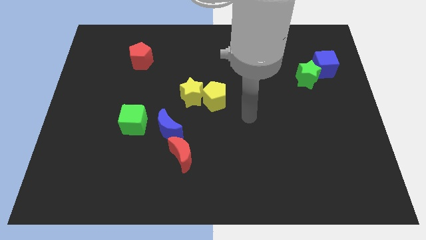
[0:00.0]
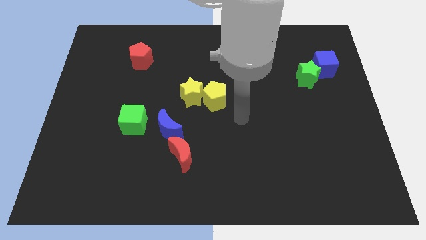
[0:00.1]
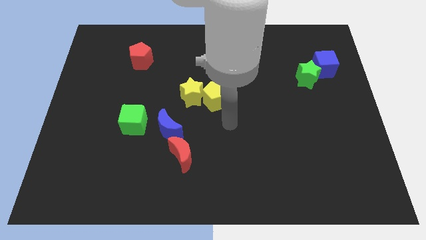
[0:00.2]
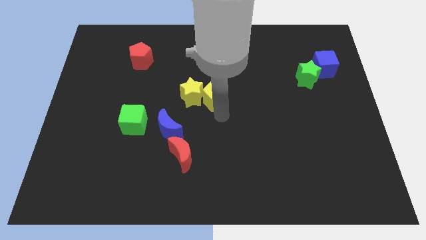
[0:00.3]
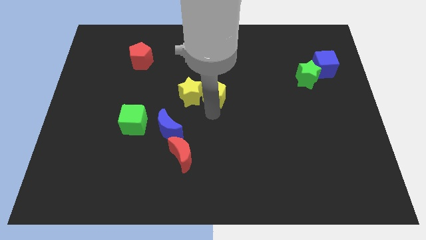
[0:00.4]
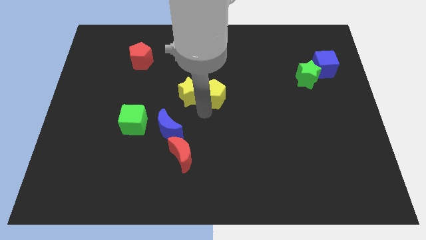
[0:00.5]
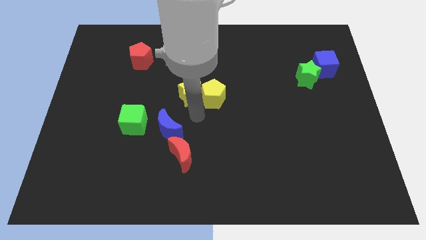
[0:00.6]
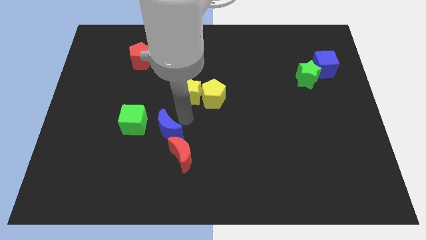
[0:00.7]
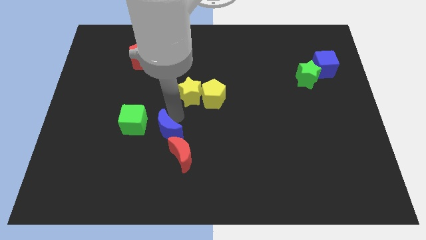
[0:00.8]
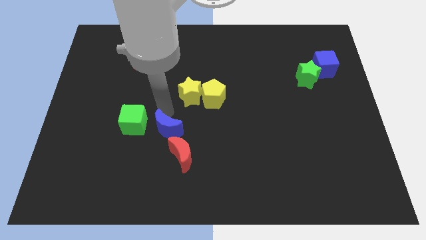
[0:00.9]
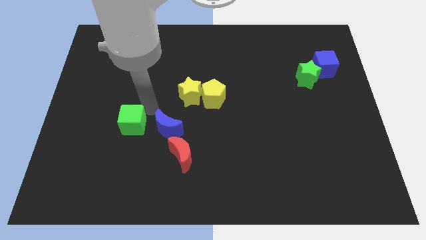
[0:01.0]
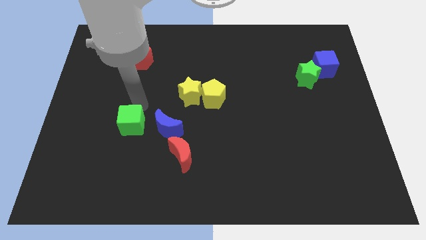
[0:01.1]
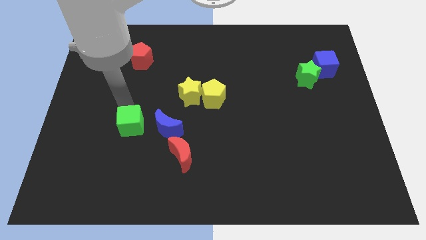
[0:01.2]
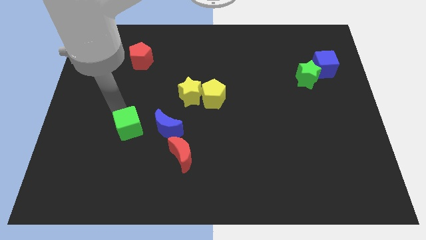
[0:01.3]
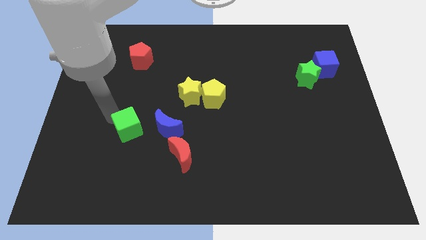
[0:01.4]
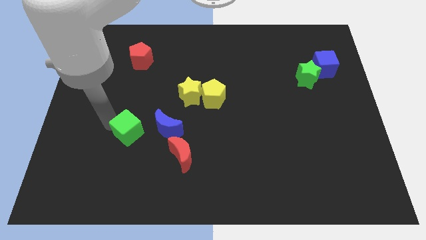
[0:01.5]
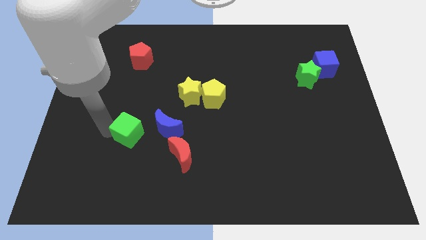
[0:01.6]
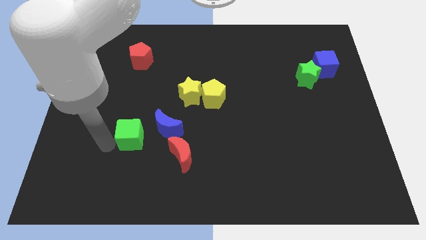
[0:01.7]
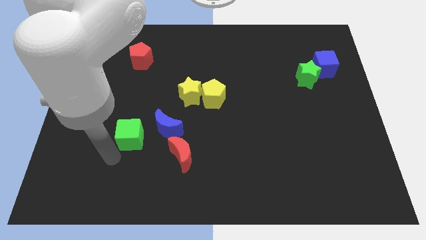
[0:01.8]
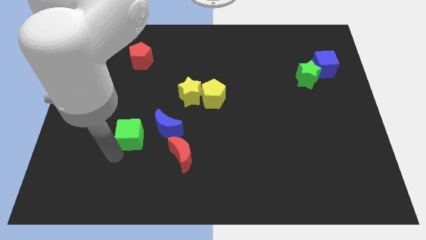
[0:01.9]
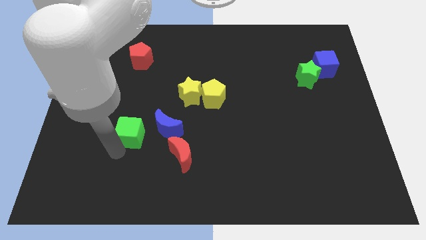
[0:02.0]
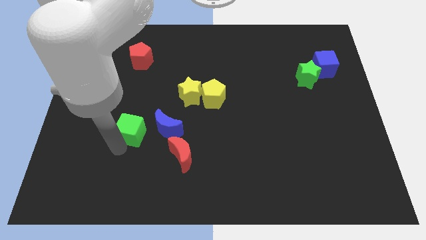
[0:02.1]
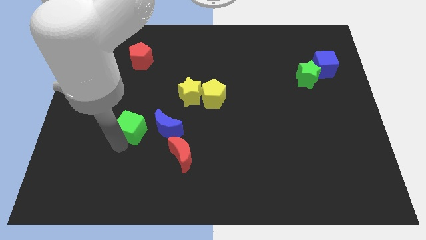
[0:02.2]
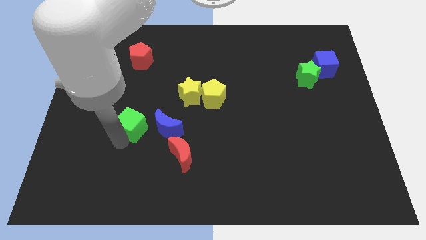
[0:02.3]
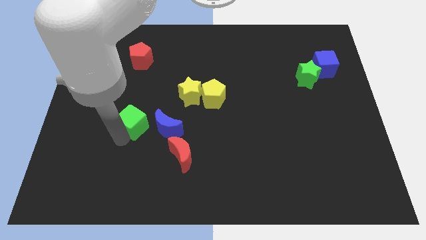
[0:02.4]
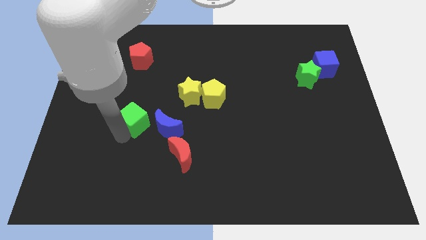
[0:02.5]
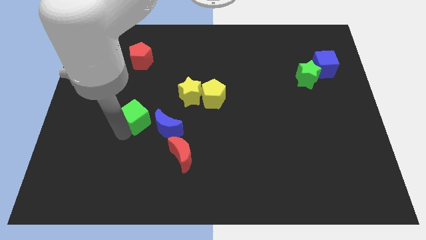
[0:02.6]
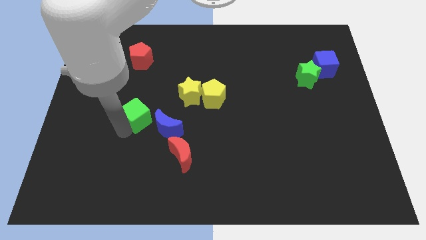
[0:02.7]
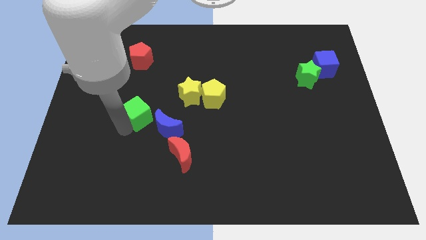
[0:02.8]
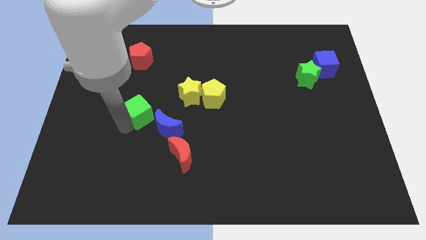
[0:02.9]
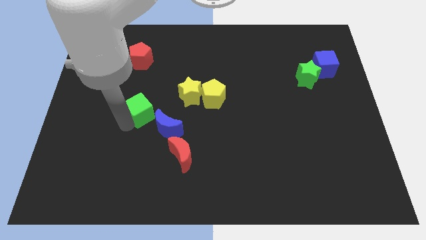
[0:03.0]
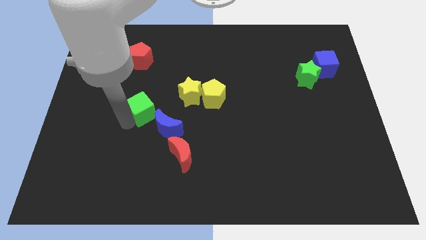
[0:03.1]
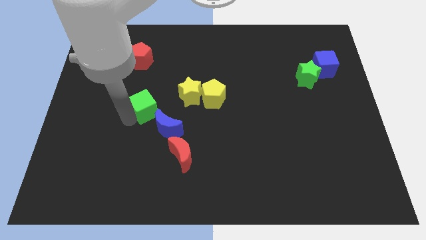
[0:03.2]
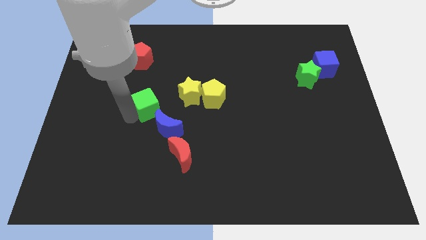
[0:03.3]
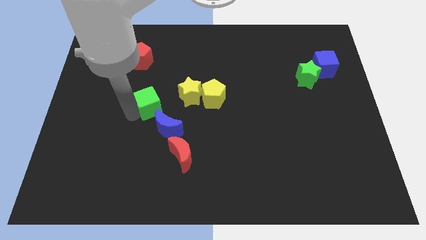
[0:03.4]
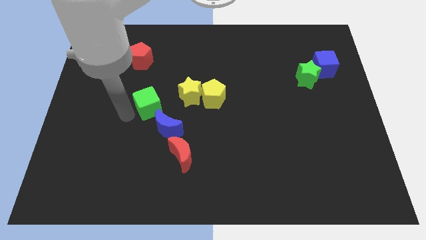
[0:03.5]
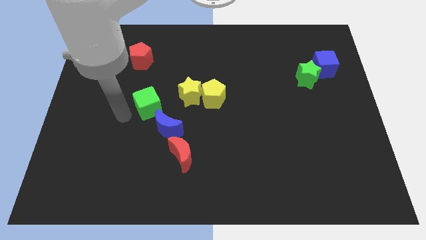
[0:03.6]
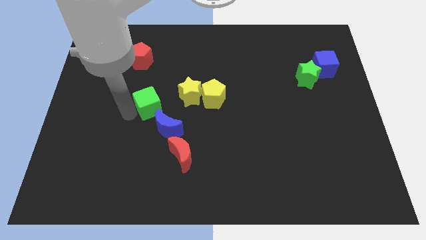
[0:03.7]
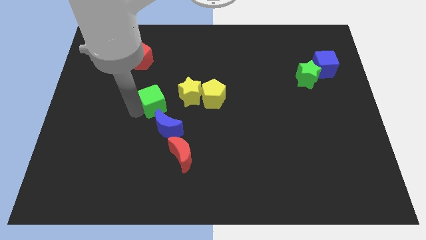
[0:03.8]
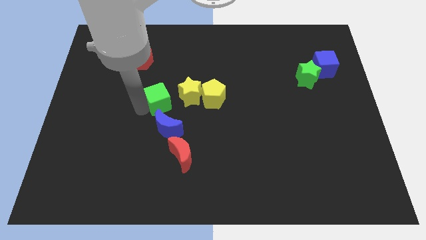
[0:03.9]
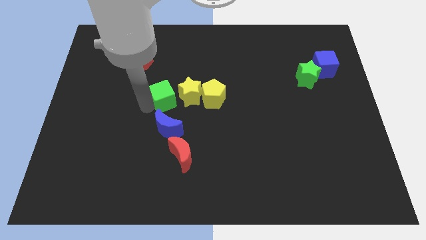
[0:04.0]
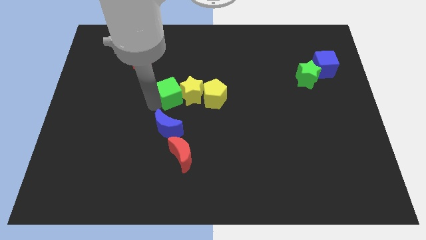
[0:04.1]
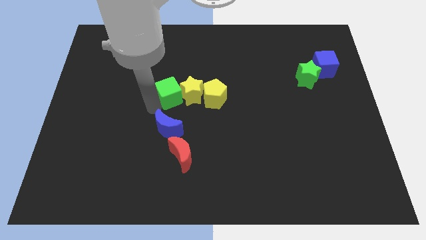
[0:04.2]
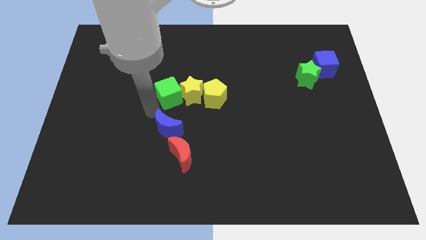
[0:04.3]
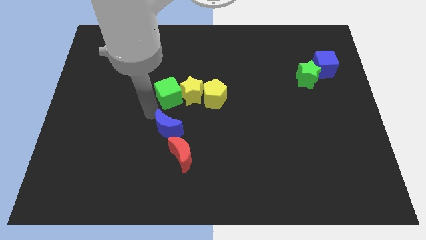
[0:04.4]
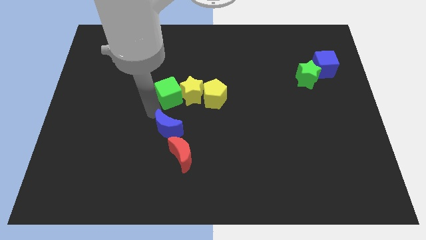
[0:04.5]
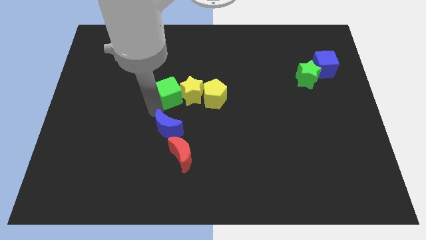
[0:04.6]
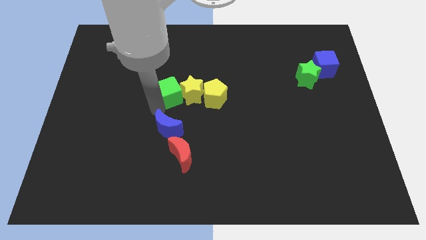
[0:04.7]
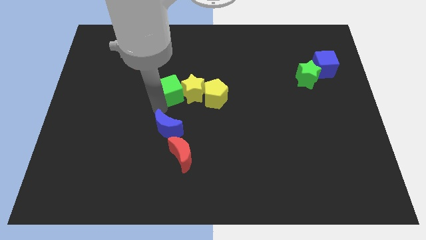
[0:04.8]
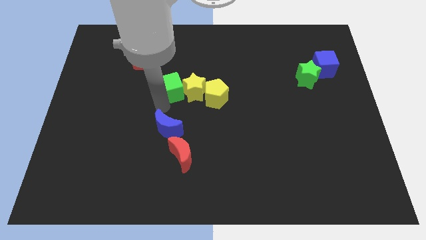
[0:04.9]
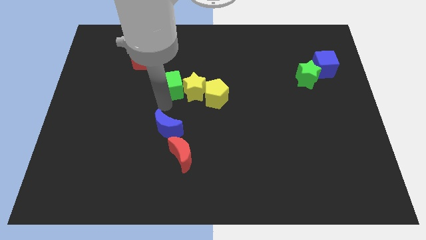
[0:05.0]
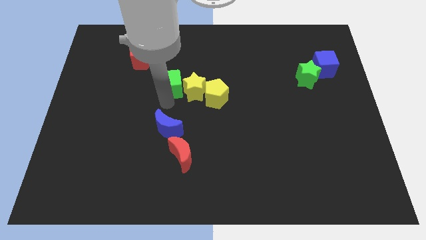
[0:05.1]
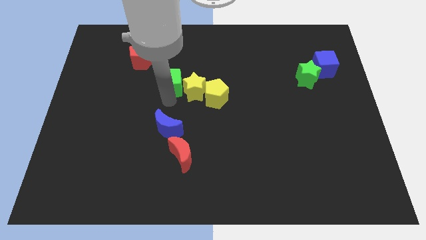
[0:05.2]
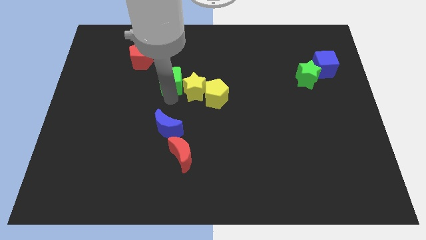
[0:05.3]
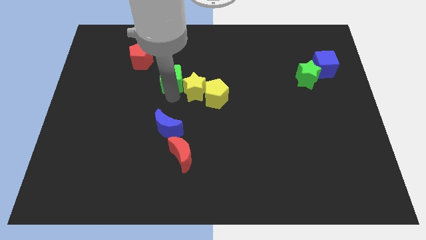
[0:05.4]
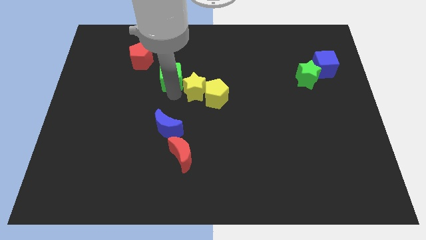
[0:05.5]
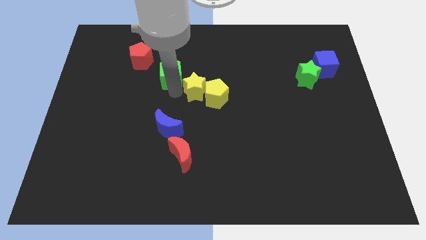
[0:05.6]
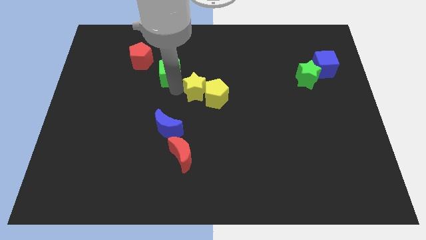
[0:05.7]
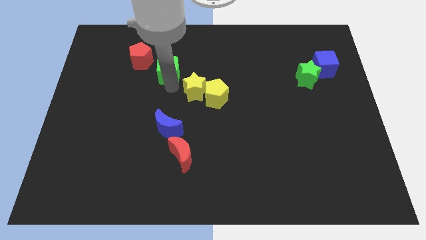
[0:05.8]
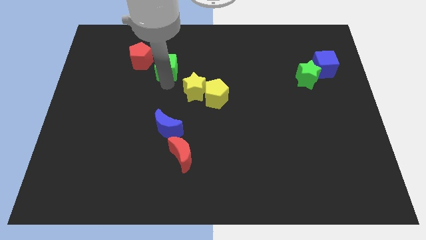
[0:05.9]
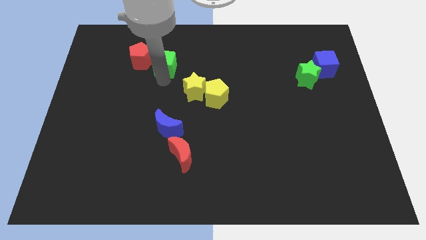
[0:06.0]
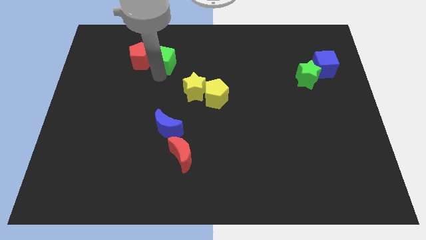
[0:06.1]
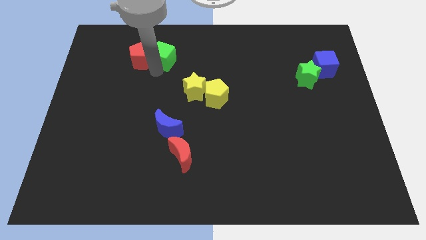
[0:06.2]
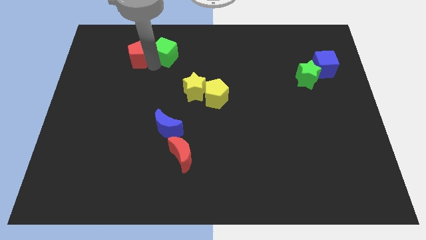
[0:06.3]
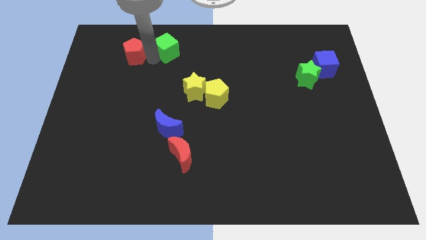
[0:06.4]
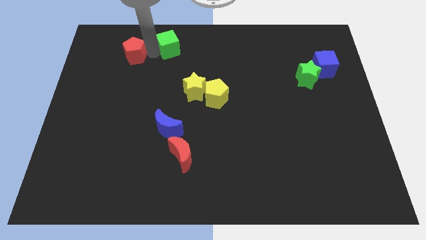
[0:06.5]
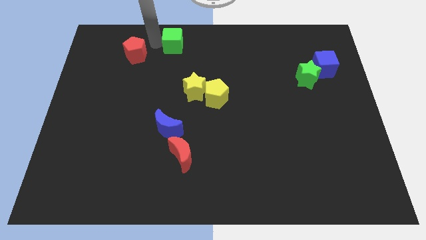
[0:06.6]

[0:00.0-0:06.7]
move the green cube to the top
